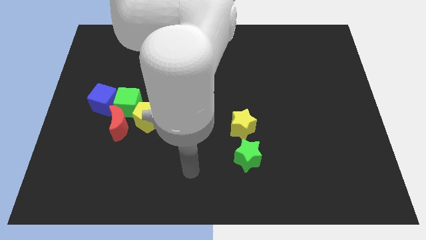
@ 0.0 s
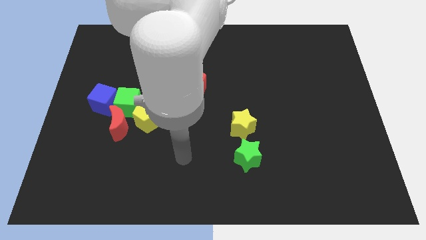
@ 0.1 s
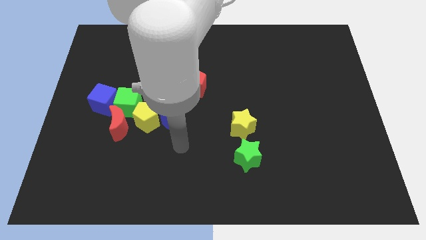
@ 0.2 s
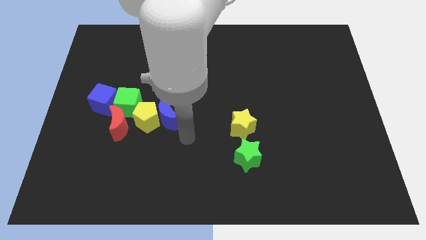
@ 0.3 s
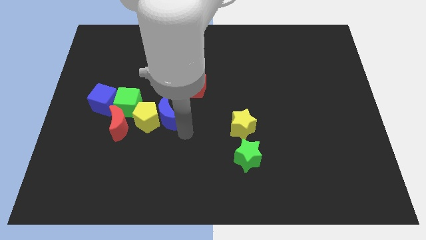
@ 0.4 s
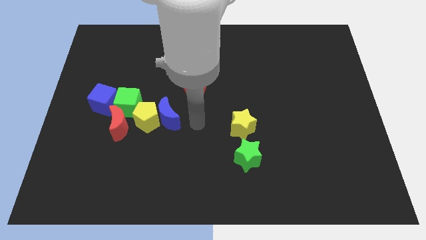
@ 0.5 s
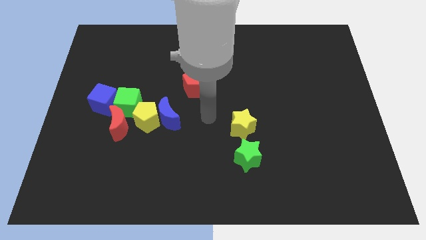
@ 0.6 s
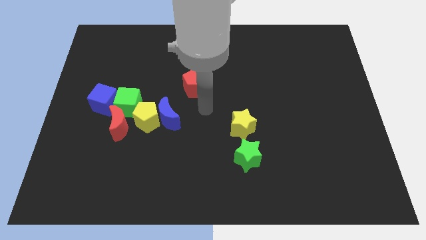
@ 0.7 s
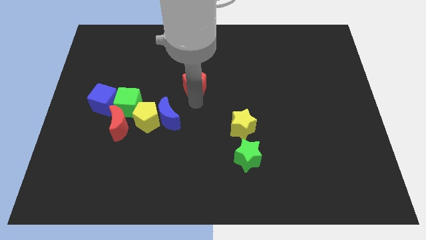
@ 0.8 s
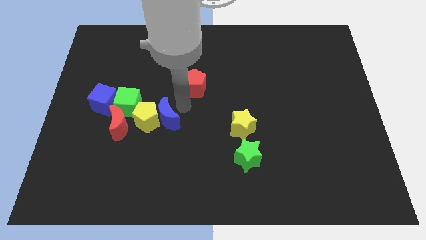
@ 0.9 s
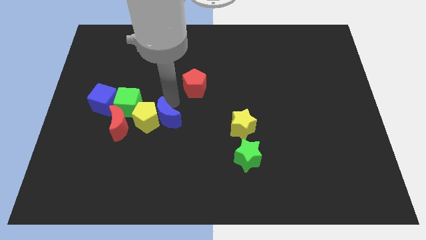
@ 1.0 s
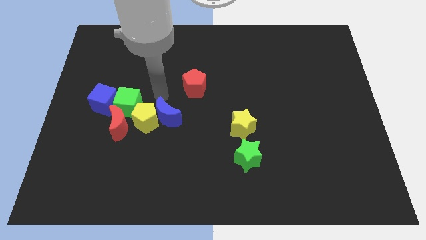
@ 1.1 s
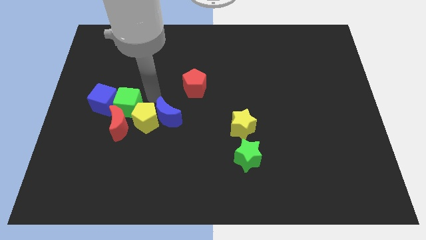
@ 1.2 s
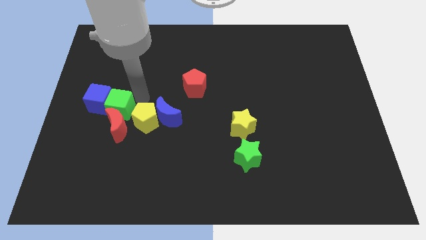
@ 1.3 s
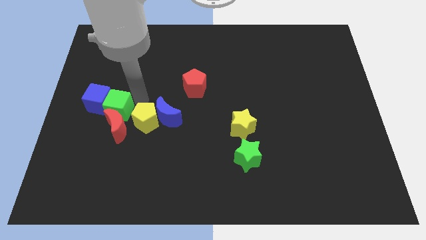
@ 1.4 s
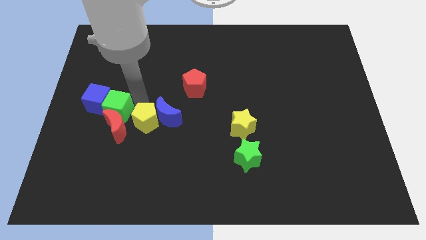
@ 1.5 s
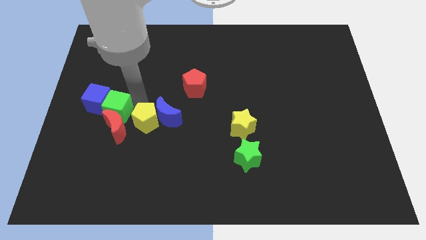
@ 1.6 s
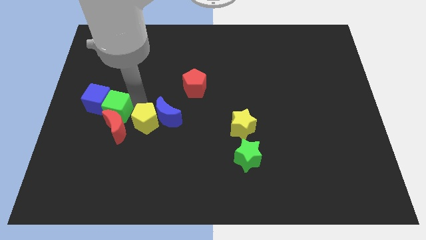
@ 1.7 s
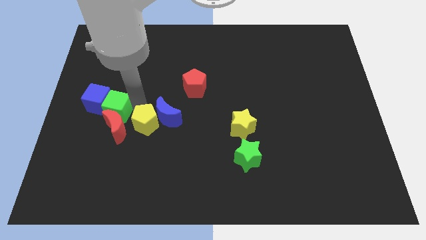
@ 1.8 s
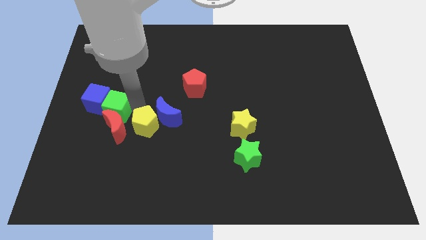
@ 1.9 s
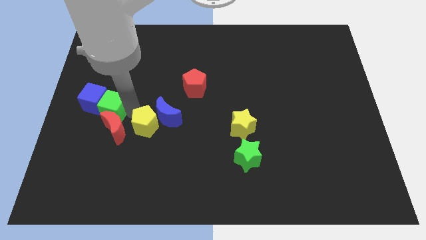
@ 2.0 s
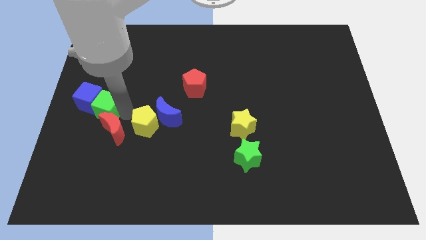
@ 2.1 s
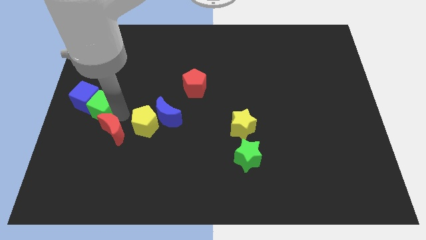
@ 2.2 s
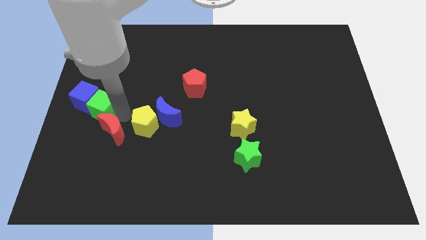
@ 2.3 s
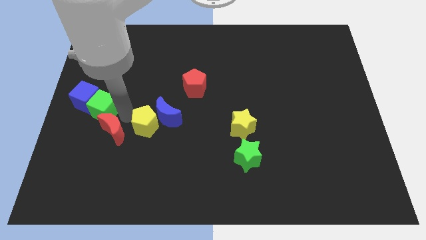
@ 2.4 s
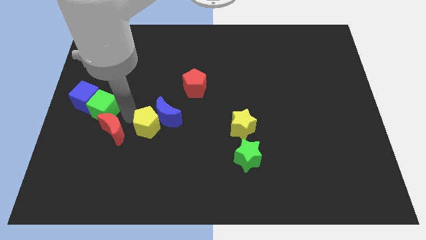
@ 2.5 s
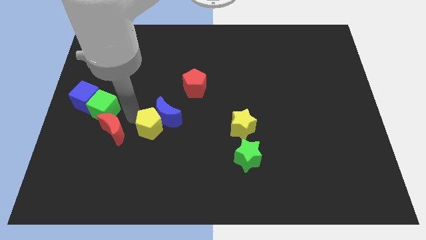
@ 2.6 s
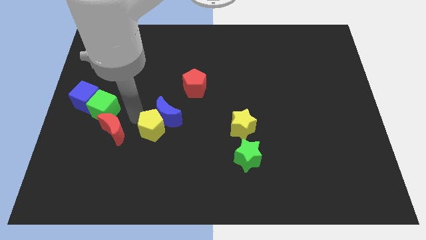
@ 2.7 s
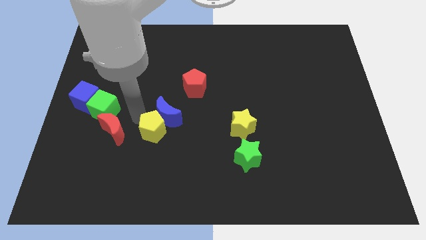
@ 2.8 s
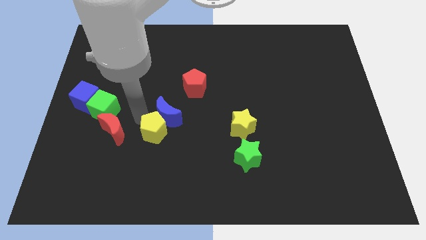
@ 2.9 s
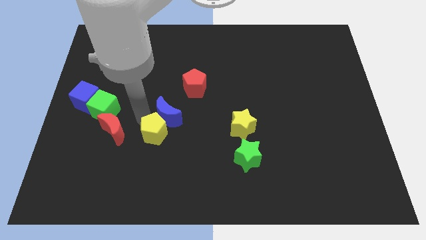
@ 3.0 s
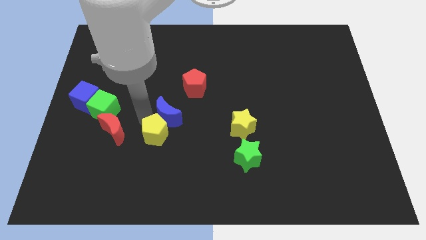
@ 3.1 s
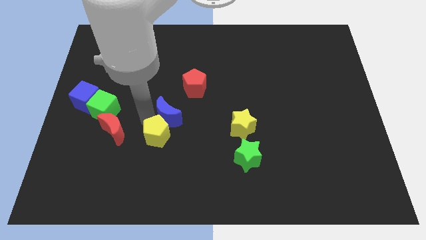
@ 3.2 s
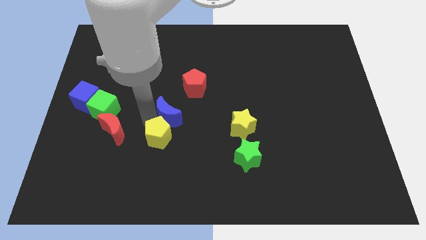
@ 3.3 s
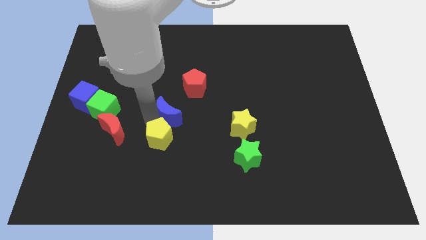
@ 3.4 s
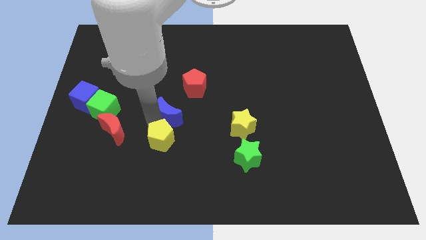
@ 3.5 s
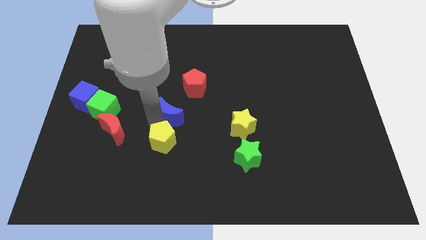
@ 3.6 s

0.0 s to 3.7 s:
separate the yellow pentagon from the group

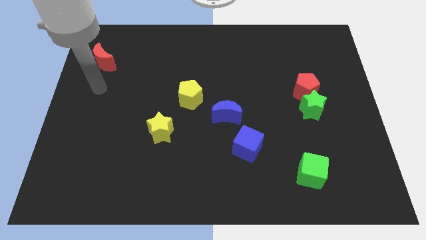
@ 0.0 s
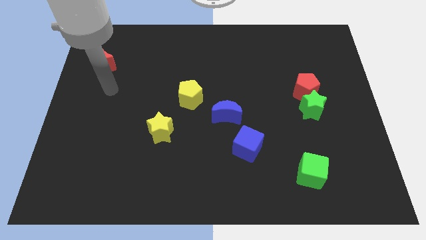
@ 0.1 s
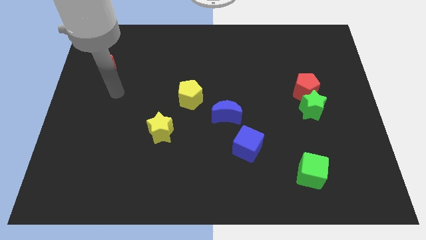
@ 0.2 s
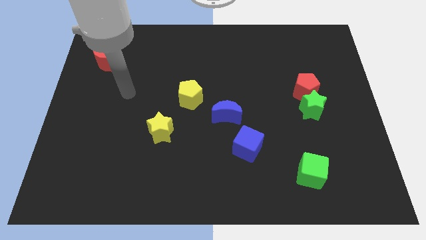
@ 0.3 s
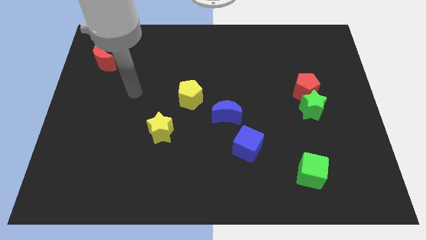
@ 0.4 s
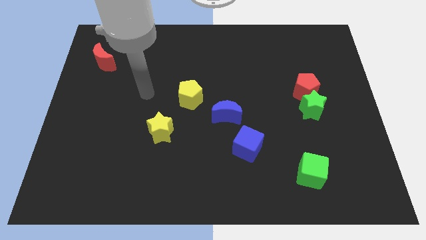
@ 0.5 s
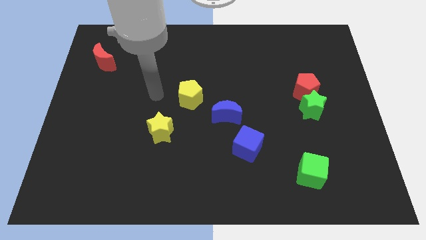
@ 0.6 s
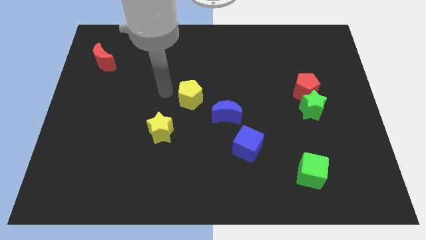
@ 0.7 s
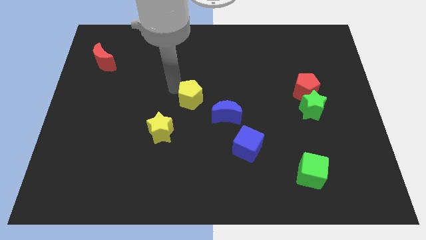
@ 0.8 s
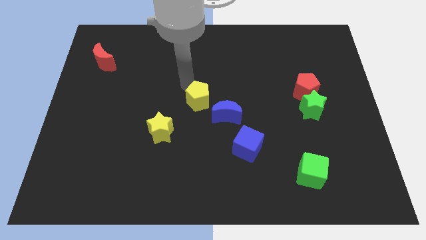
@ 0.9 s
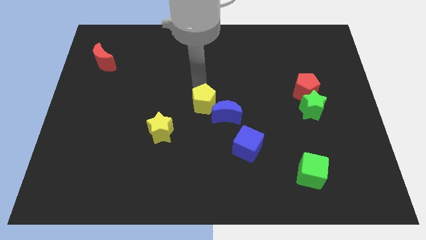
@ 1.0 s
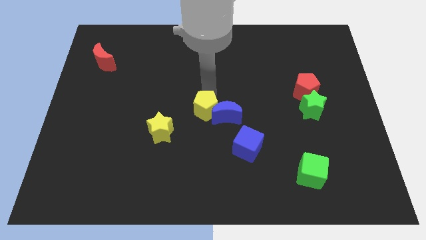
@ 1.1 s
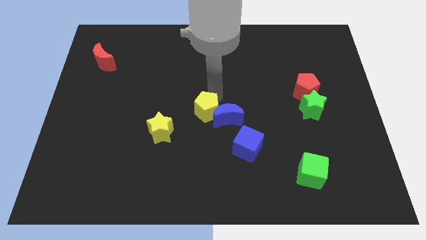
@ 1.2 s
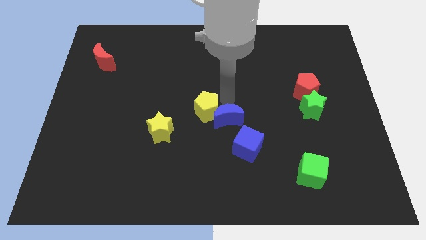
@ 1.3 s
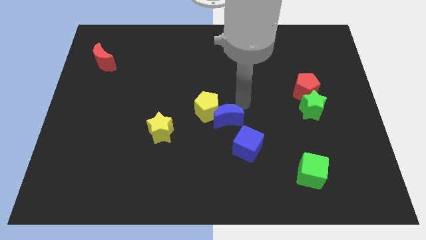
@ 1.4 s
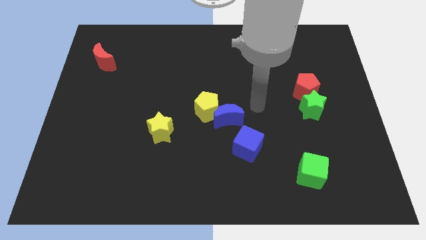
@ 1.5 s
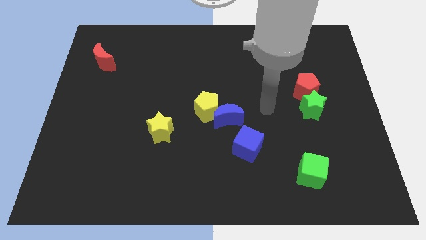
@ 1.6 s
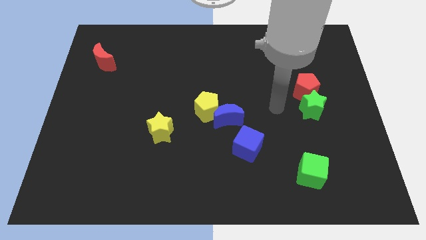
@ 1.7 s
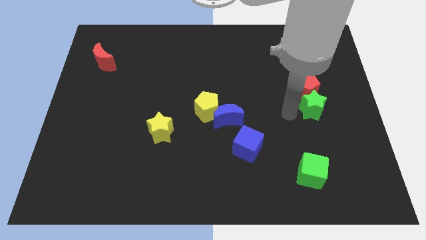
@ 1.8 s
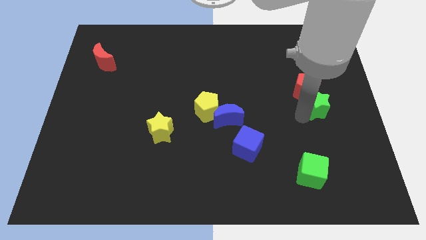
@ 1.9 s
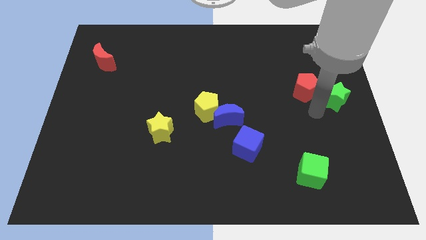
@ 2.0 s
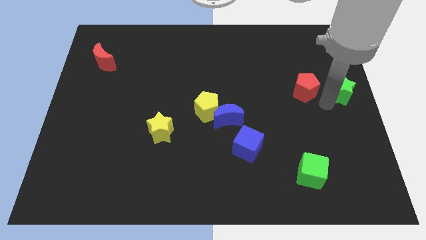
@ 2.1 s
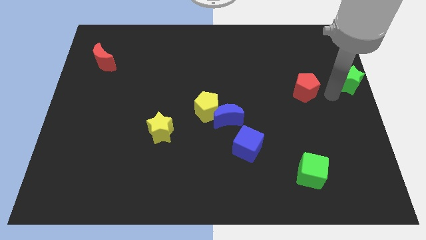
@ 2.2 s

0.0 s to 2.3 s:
move the red pentagon away from the green star

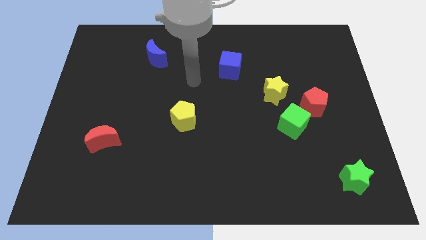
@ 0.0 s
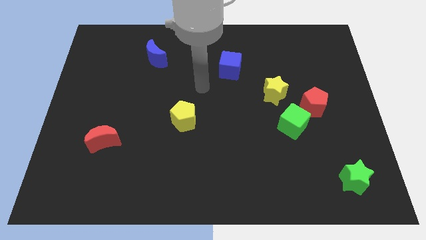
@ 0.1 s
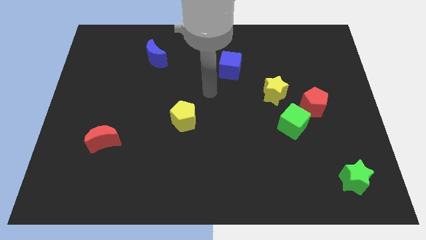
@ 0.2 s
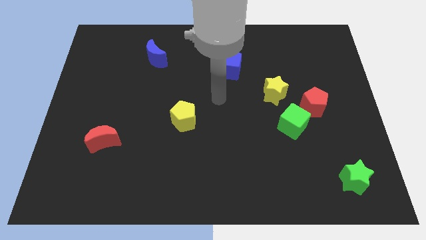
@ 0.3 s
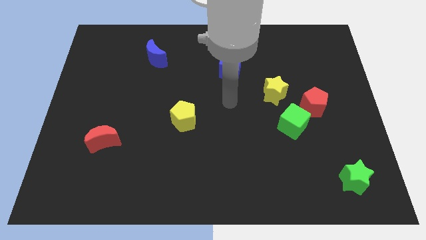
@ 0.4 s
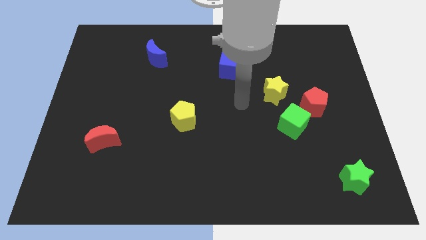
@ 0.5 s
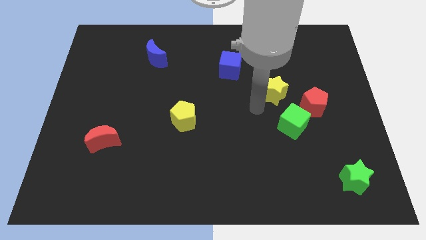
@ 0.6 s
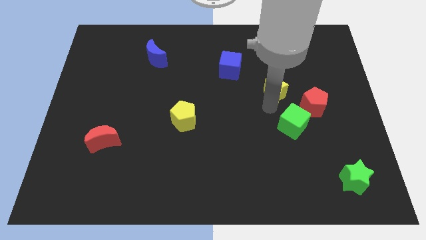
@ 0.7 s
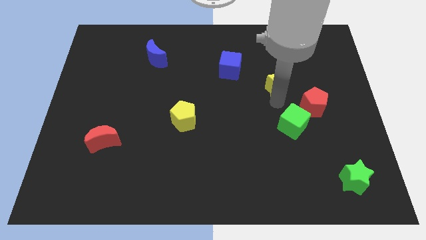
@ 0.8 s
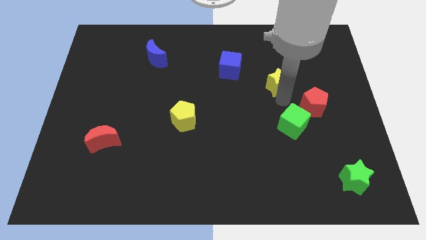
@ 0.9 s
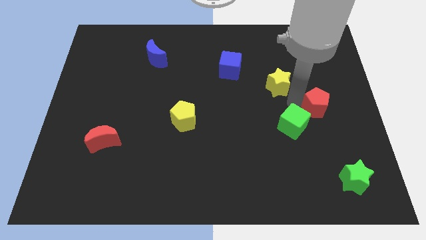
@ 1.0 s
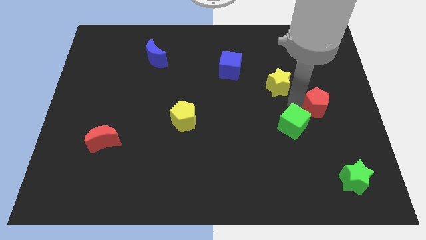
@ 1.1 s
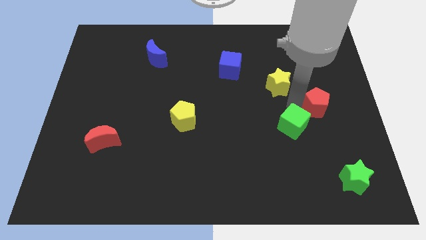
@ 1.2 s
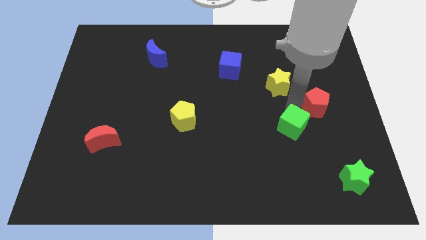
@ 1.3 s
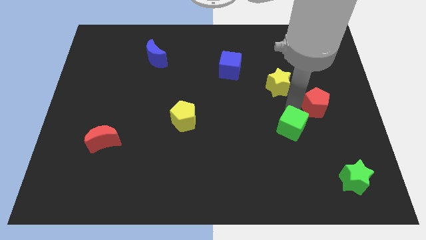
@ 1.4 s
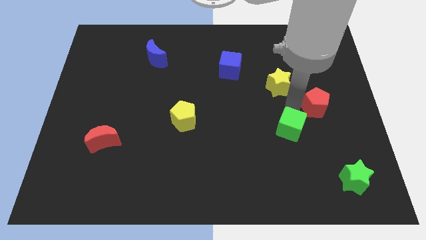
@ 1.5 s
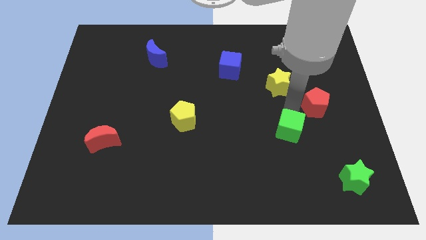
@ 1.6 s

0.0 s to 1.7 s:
move the green cube away from the red pentagon and yellow star

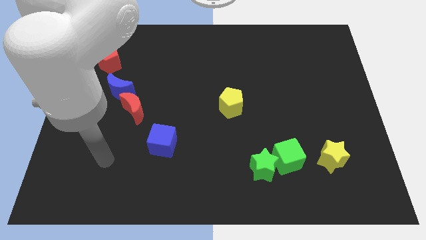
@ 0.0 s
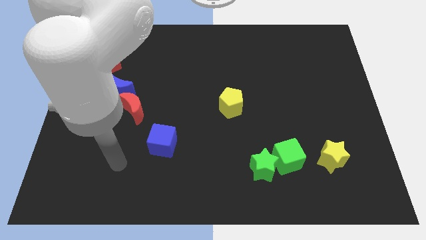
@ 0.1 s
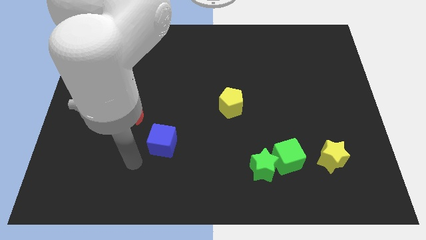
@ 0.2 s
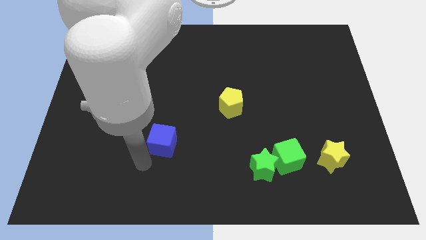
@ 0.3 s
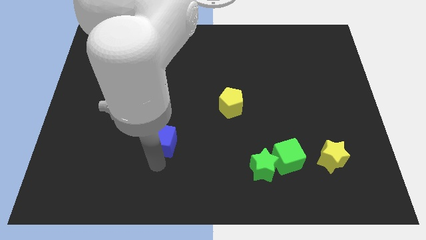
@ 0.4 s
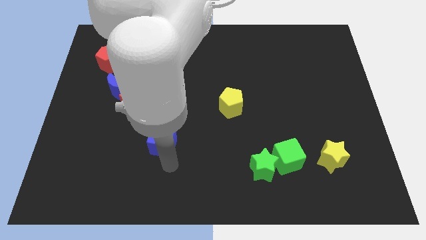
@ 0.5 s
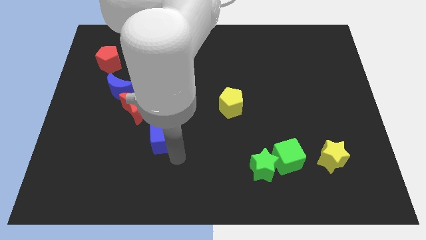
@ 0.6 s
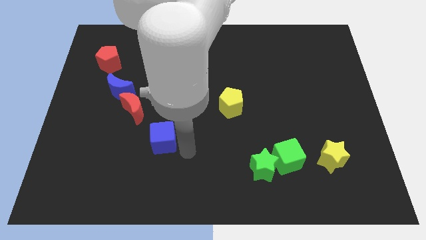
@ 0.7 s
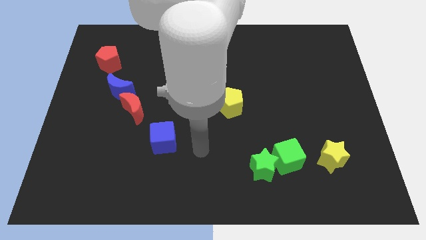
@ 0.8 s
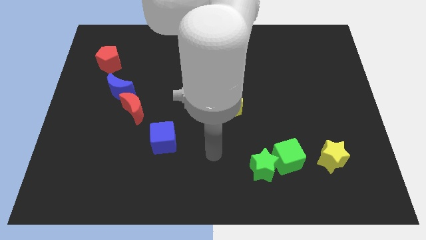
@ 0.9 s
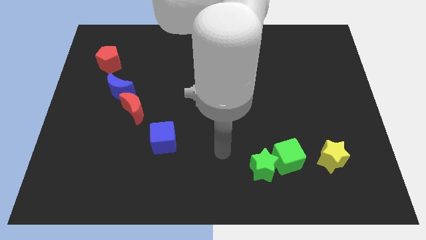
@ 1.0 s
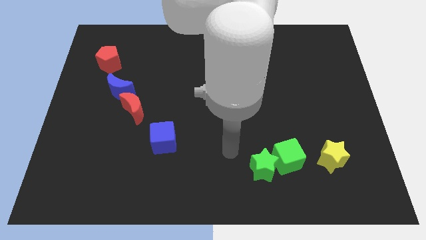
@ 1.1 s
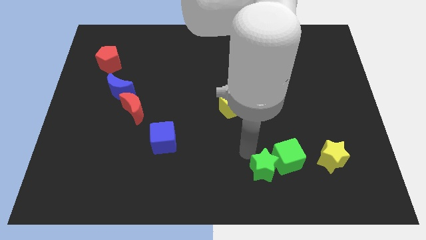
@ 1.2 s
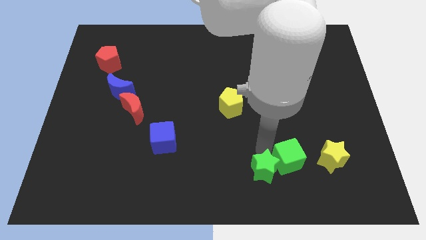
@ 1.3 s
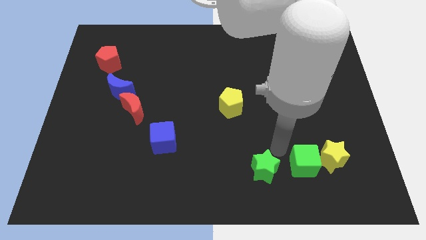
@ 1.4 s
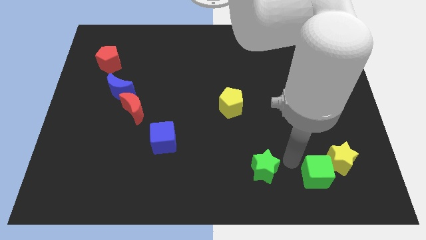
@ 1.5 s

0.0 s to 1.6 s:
pull the green star apart from the green cube

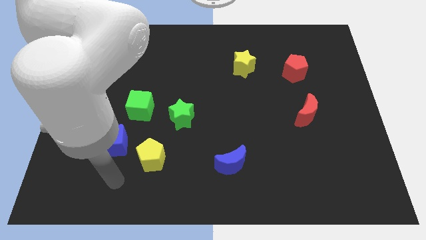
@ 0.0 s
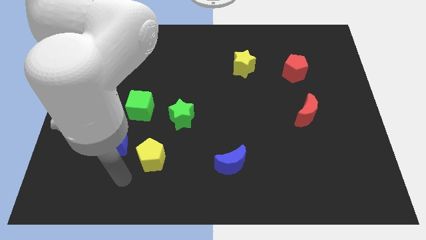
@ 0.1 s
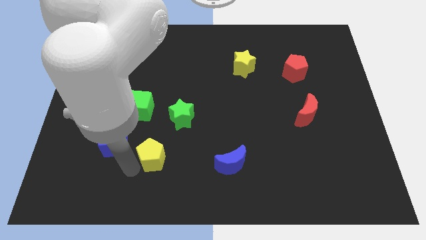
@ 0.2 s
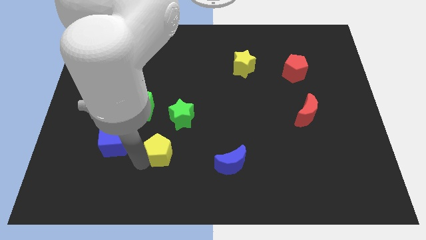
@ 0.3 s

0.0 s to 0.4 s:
pull the blue cube apart from the yellow pentagon
